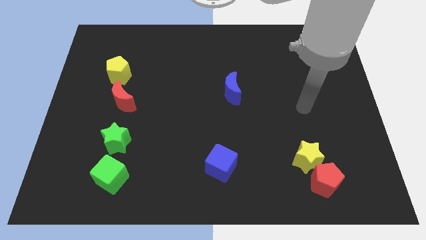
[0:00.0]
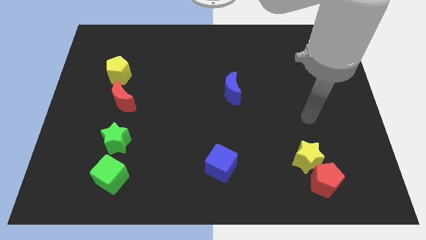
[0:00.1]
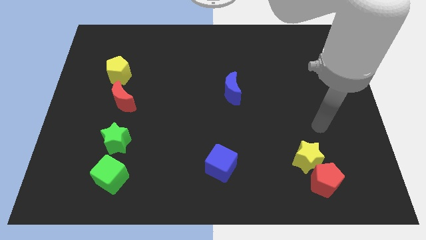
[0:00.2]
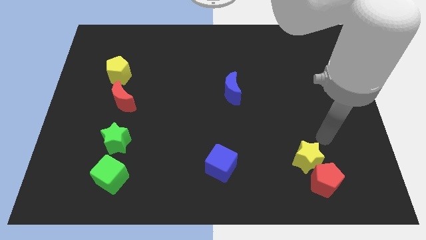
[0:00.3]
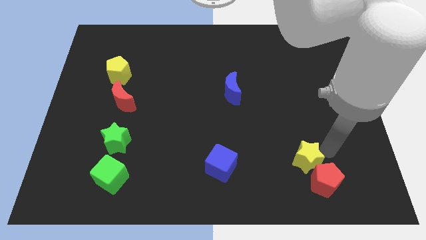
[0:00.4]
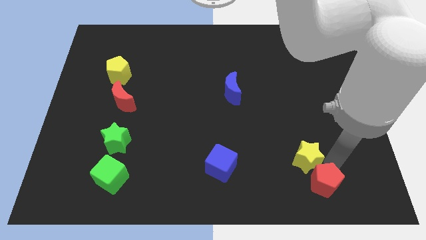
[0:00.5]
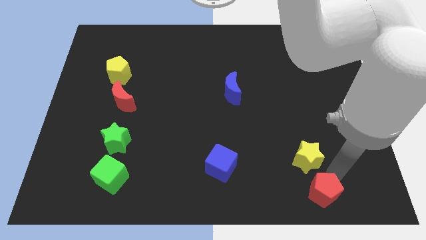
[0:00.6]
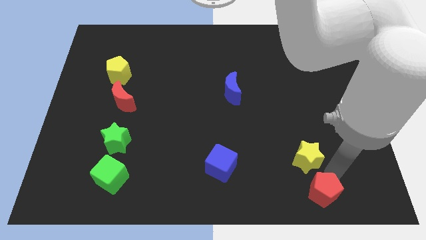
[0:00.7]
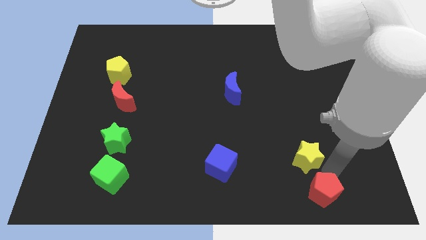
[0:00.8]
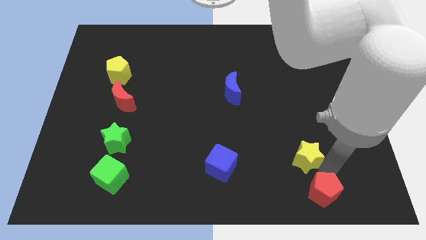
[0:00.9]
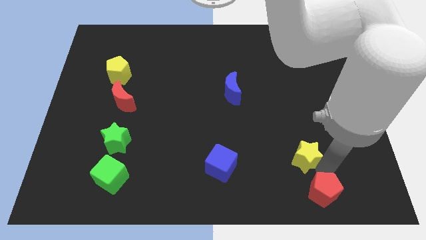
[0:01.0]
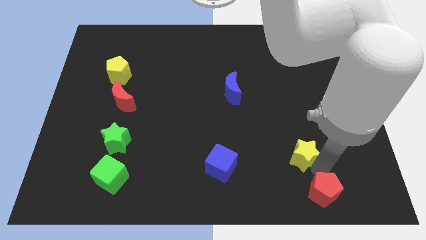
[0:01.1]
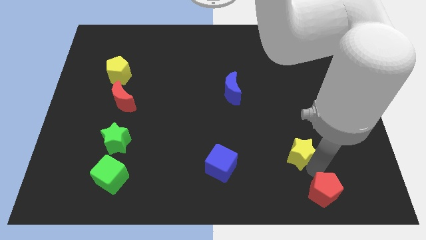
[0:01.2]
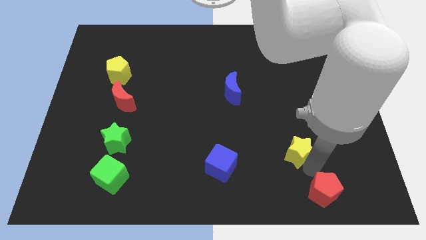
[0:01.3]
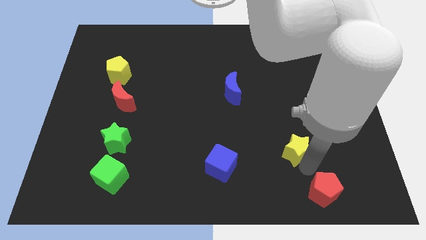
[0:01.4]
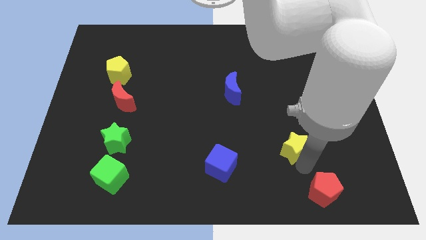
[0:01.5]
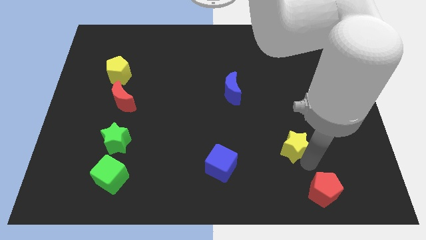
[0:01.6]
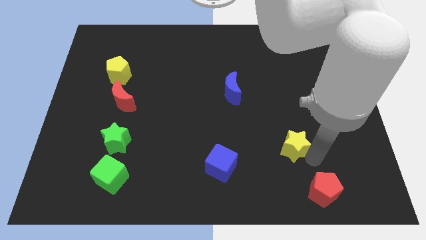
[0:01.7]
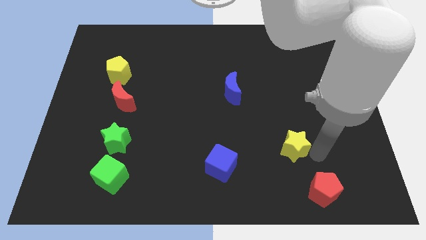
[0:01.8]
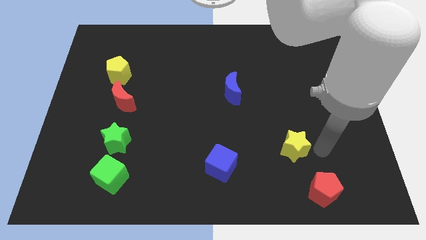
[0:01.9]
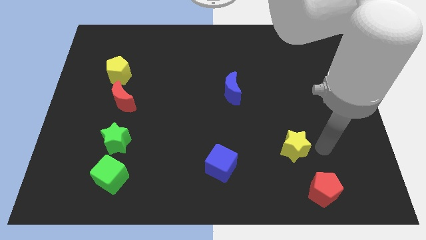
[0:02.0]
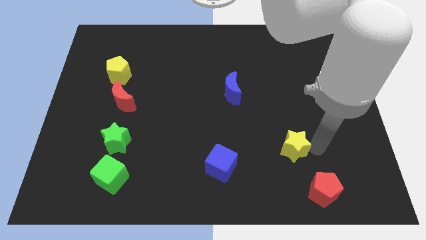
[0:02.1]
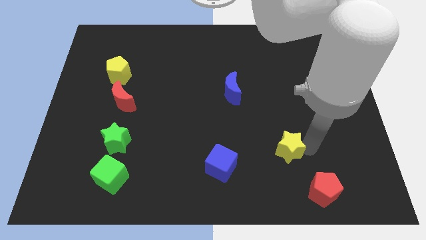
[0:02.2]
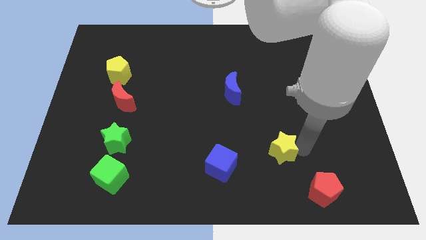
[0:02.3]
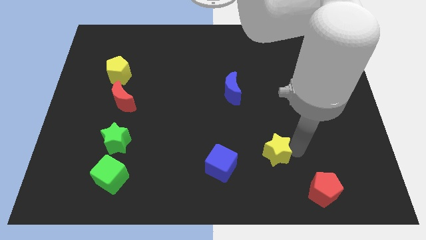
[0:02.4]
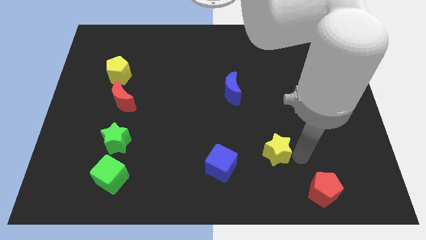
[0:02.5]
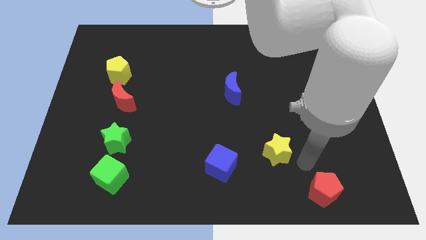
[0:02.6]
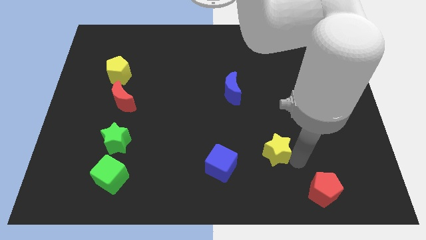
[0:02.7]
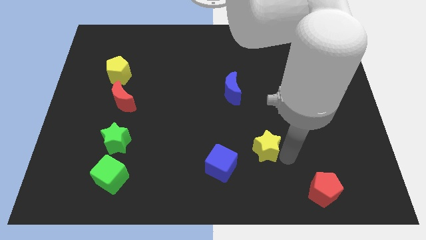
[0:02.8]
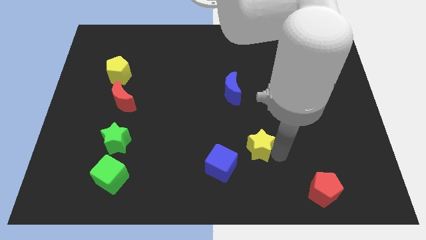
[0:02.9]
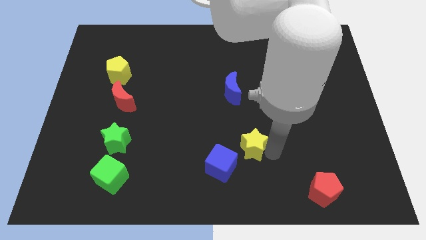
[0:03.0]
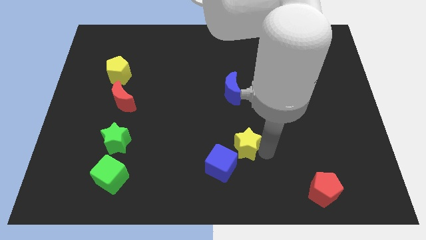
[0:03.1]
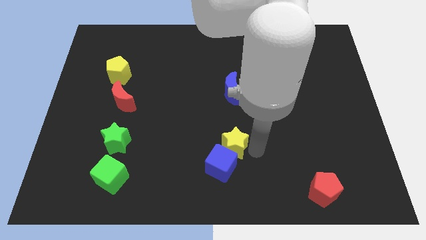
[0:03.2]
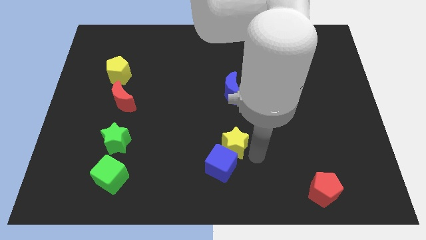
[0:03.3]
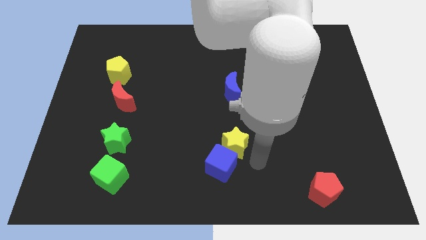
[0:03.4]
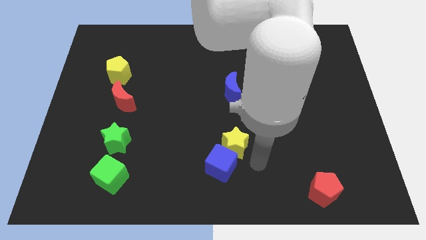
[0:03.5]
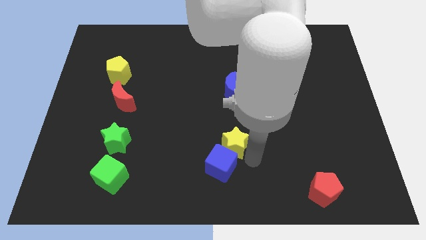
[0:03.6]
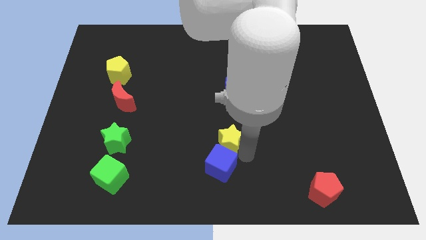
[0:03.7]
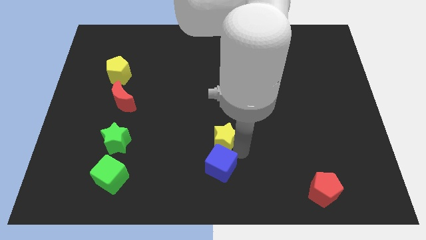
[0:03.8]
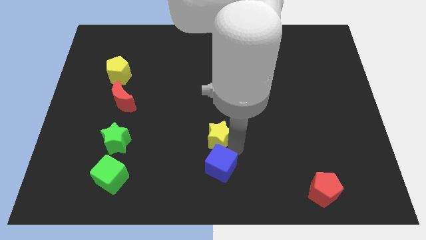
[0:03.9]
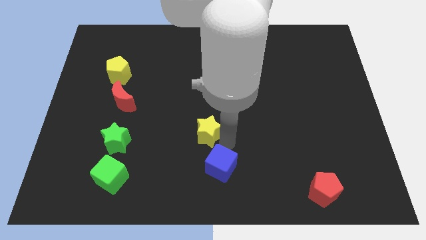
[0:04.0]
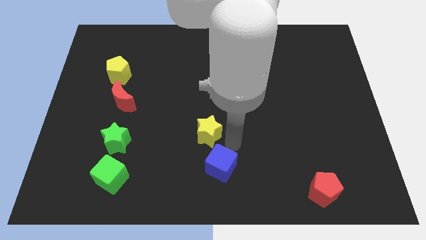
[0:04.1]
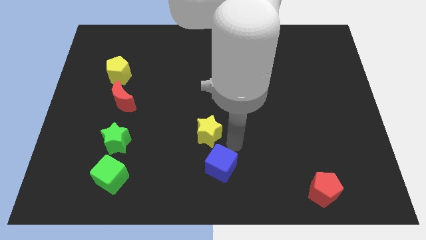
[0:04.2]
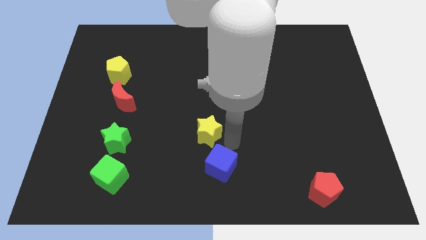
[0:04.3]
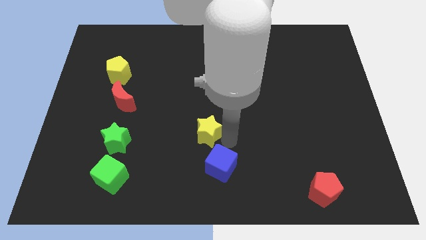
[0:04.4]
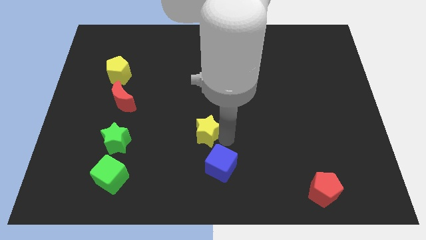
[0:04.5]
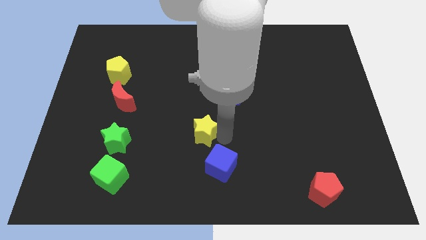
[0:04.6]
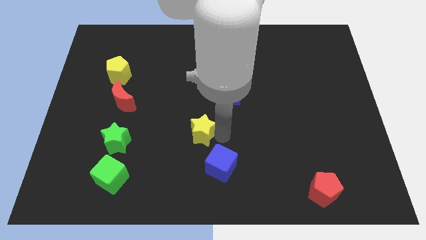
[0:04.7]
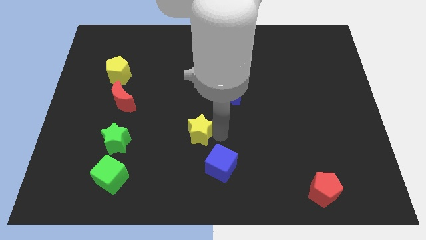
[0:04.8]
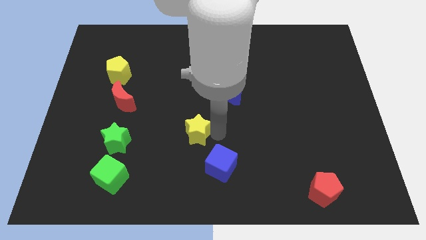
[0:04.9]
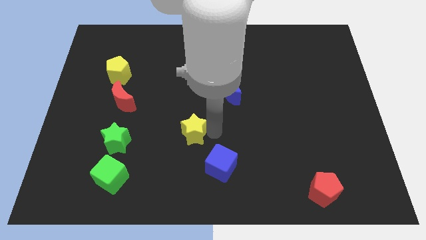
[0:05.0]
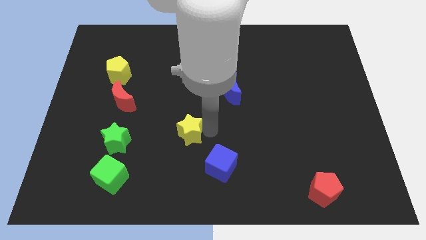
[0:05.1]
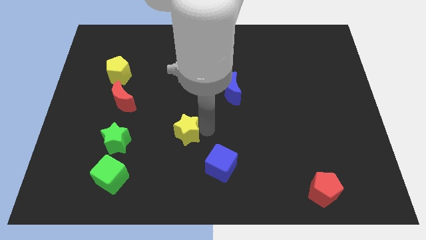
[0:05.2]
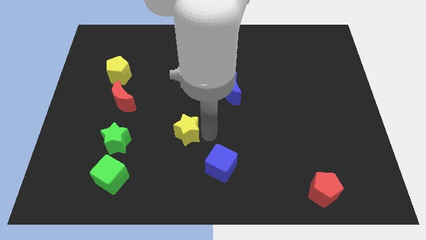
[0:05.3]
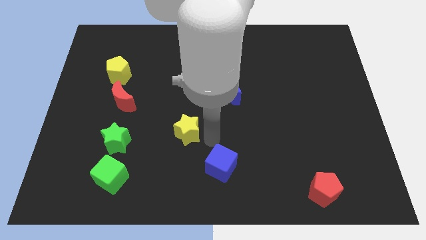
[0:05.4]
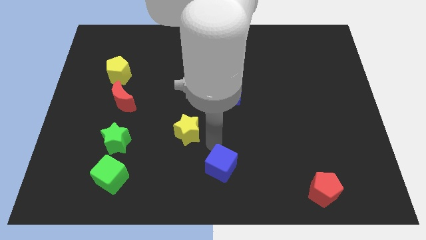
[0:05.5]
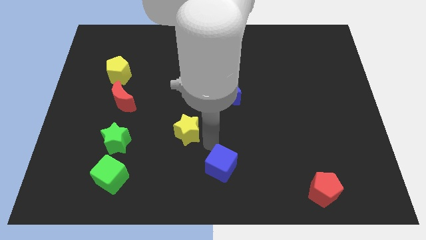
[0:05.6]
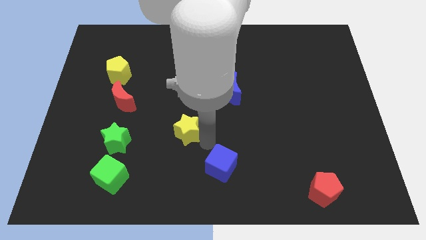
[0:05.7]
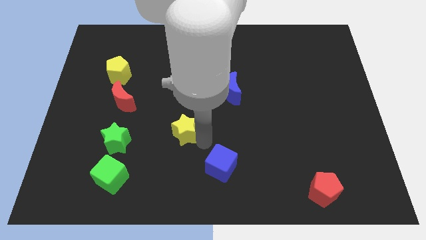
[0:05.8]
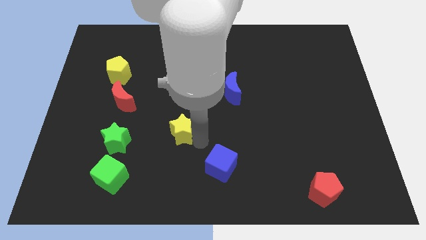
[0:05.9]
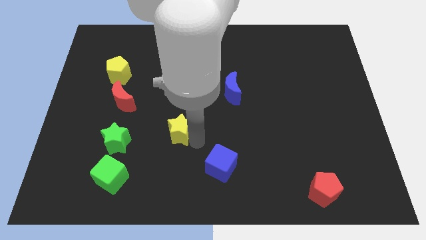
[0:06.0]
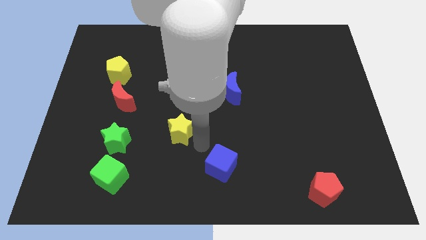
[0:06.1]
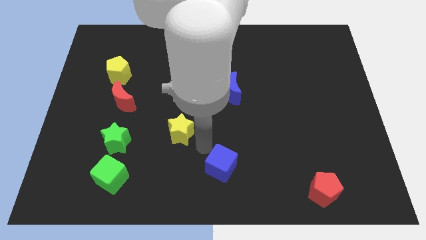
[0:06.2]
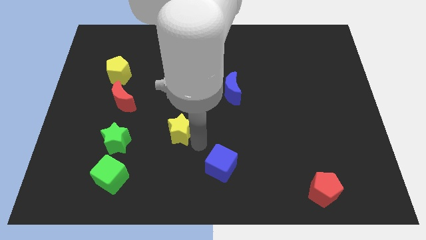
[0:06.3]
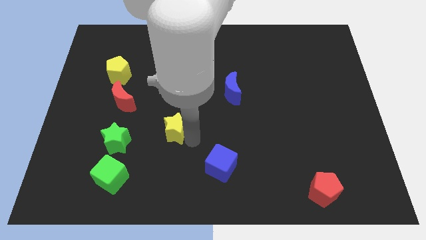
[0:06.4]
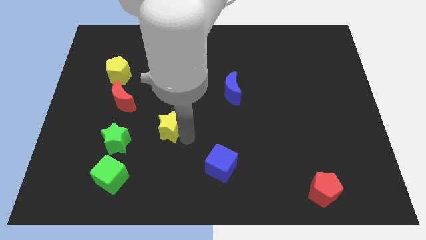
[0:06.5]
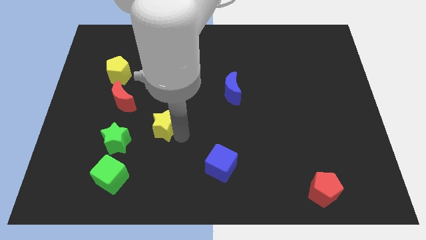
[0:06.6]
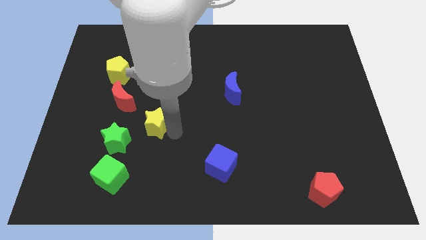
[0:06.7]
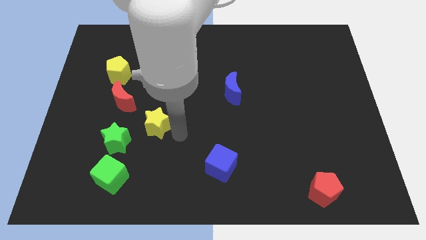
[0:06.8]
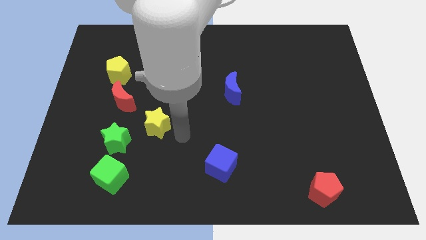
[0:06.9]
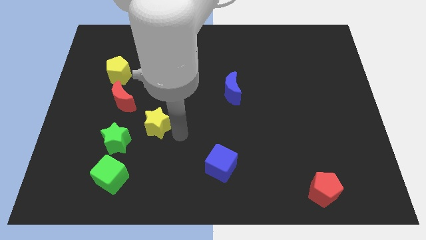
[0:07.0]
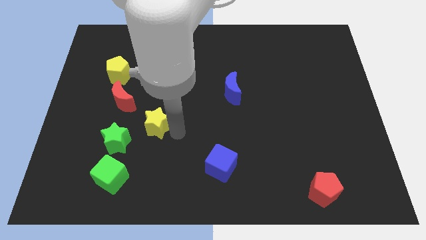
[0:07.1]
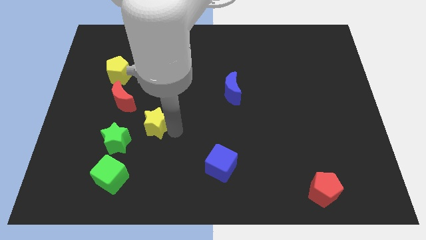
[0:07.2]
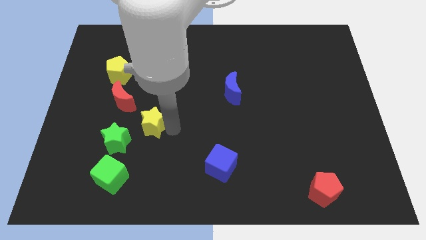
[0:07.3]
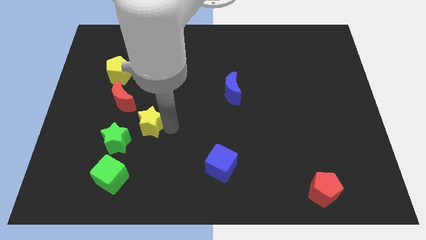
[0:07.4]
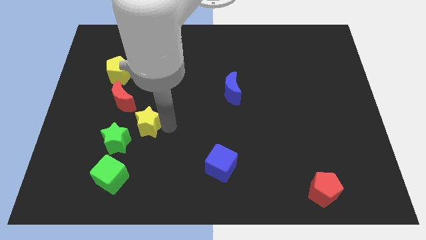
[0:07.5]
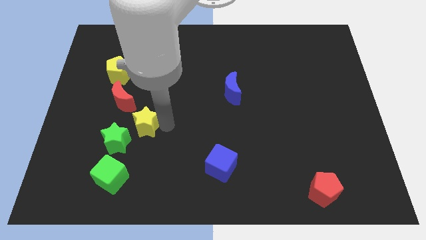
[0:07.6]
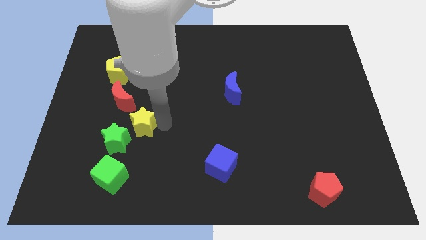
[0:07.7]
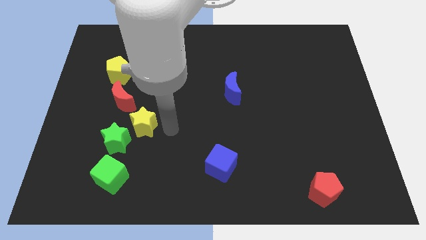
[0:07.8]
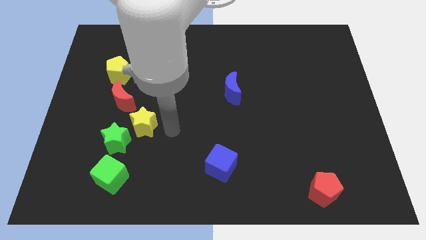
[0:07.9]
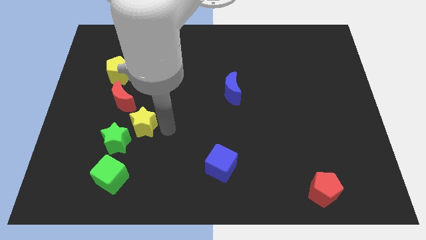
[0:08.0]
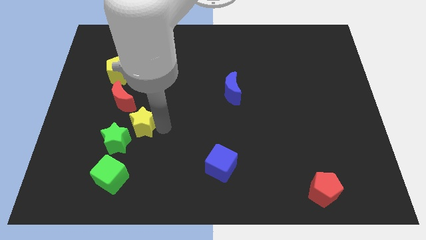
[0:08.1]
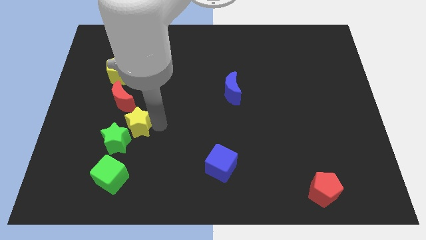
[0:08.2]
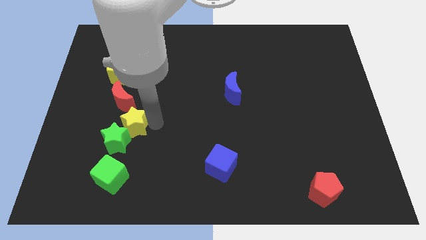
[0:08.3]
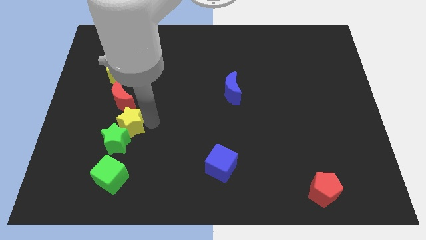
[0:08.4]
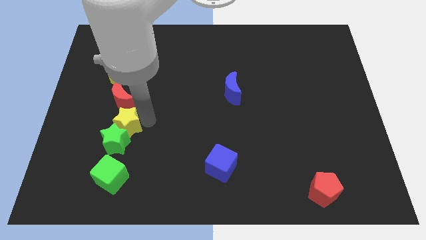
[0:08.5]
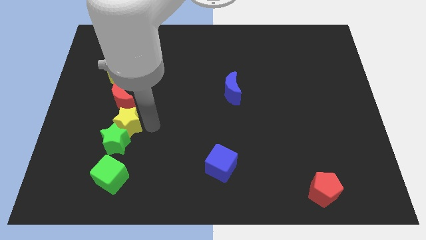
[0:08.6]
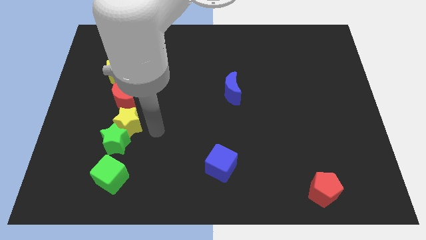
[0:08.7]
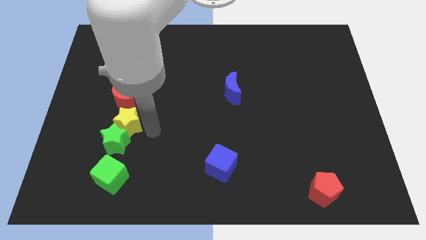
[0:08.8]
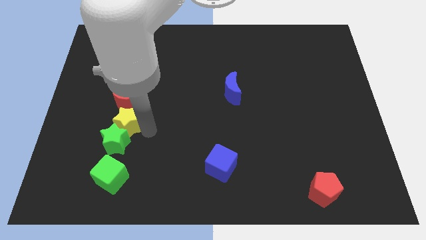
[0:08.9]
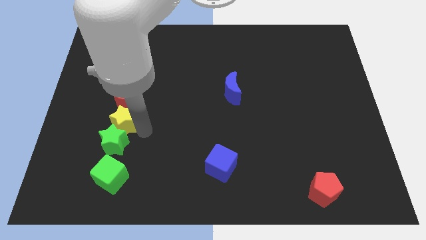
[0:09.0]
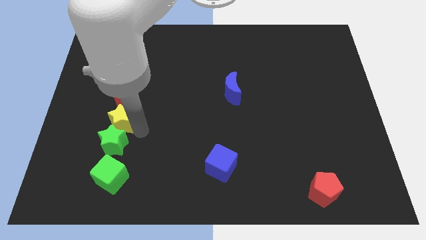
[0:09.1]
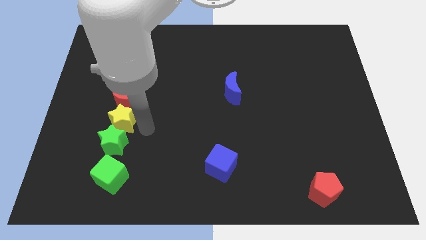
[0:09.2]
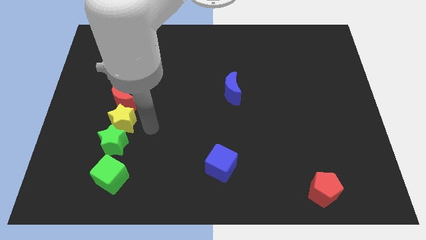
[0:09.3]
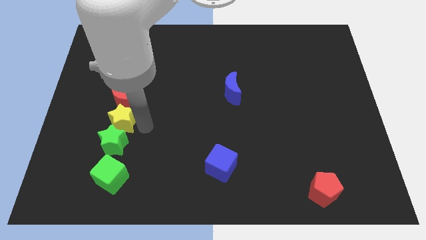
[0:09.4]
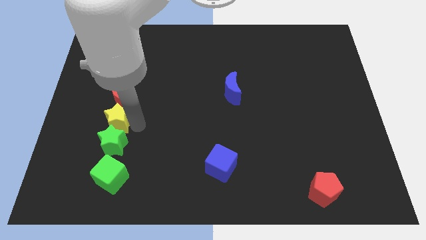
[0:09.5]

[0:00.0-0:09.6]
move the yellow star to the bottom left side of the red moon
